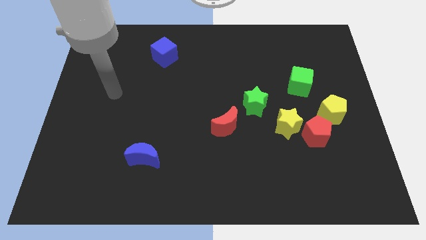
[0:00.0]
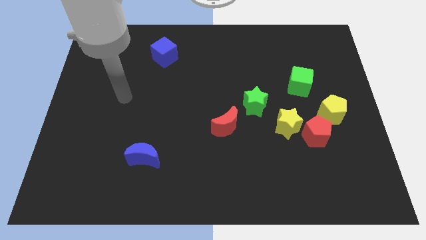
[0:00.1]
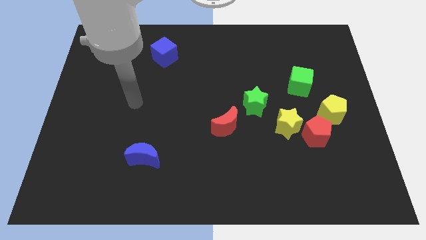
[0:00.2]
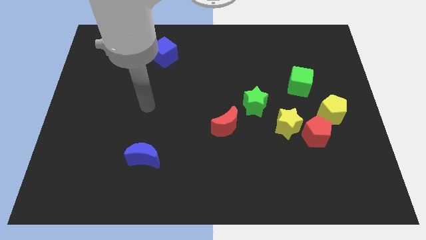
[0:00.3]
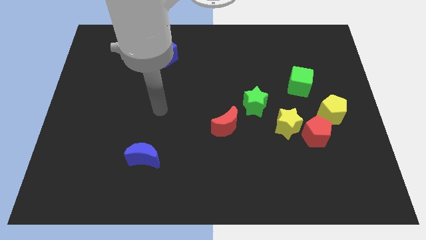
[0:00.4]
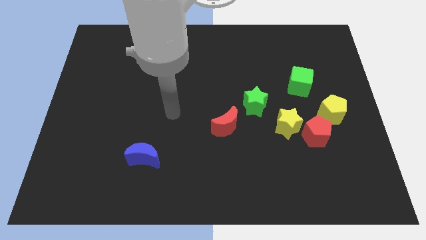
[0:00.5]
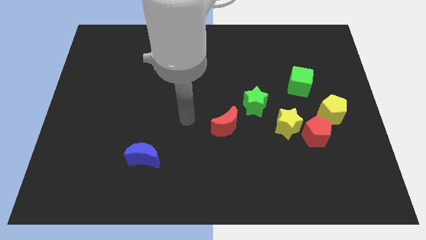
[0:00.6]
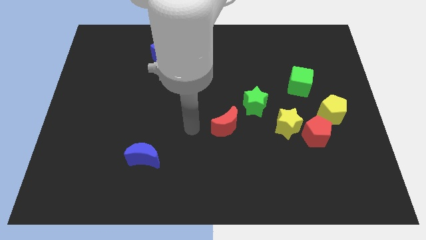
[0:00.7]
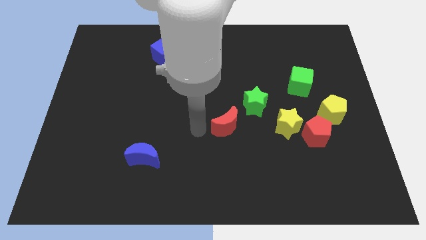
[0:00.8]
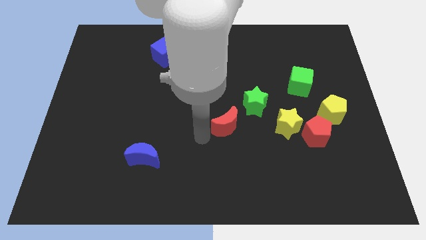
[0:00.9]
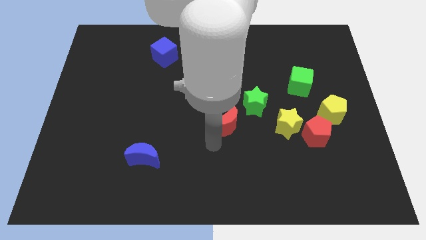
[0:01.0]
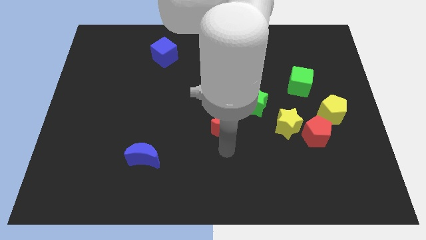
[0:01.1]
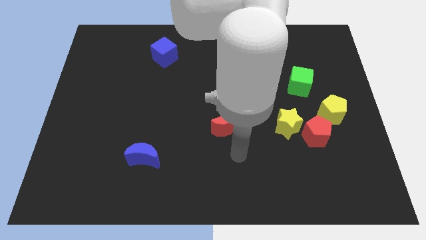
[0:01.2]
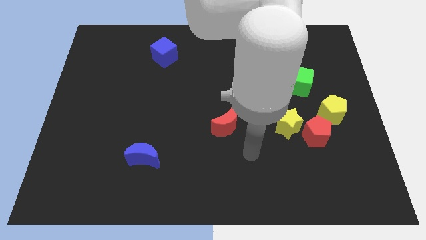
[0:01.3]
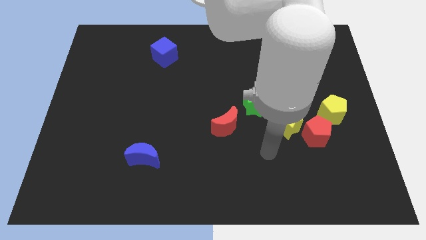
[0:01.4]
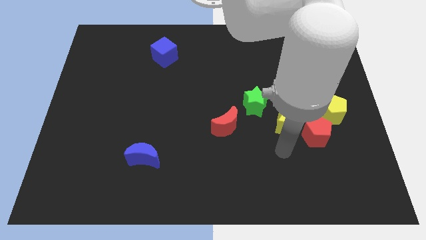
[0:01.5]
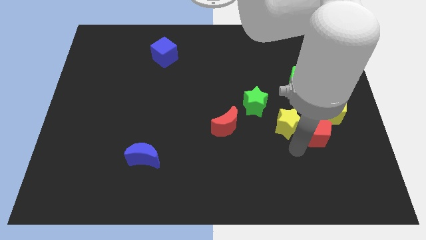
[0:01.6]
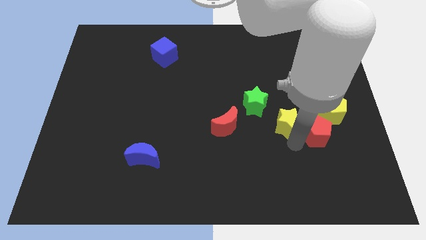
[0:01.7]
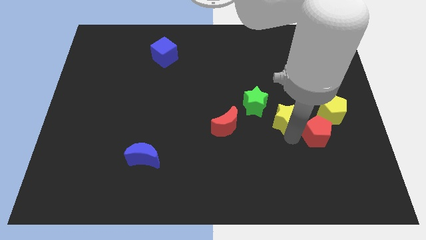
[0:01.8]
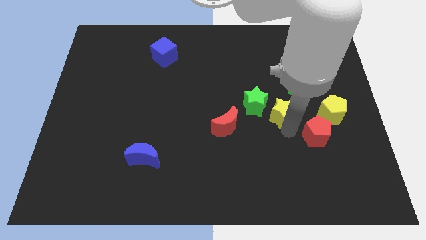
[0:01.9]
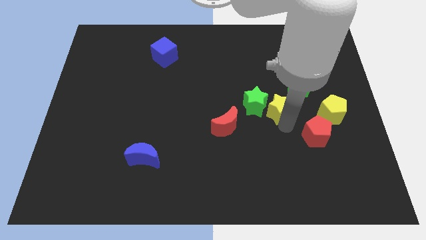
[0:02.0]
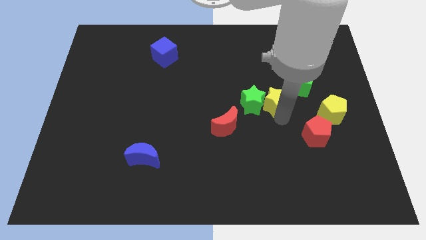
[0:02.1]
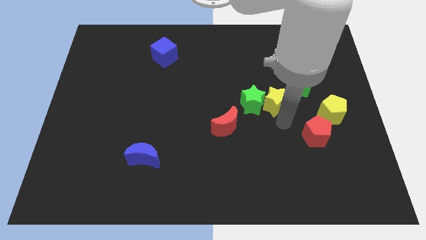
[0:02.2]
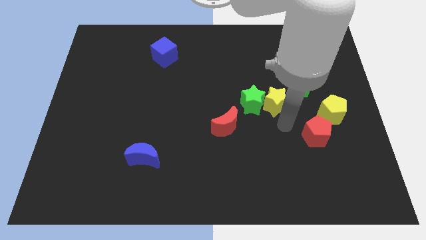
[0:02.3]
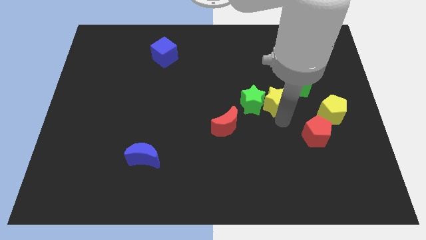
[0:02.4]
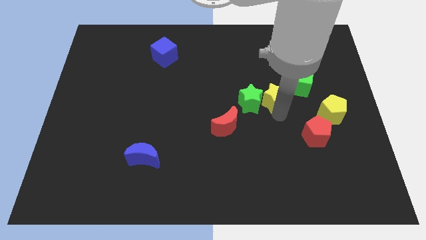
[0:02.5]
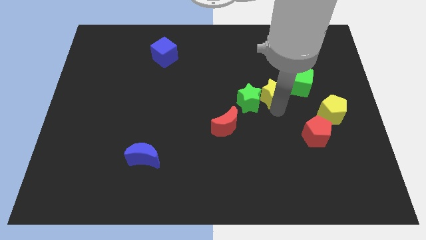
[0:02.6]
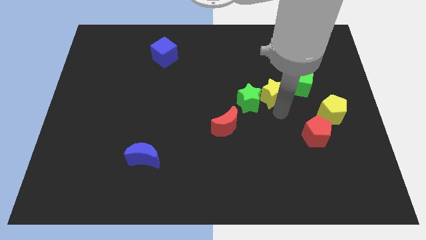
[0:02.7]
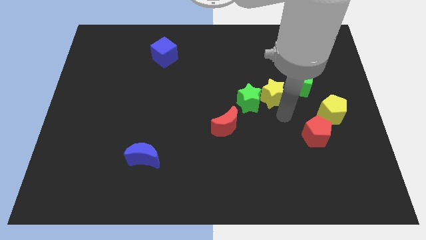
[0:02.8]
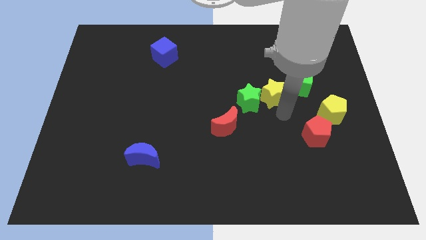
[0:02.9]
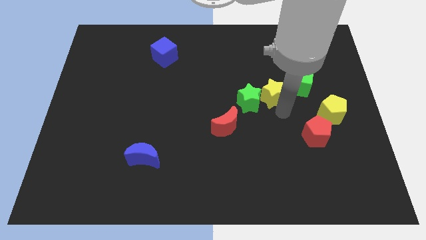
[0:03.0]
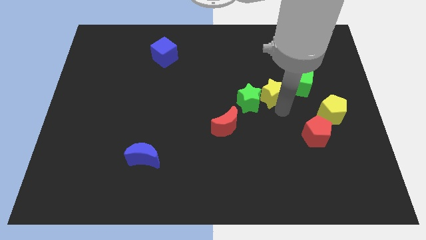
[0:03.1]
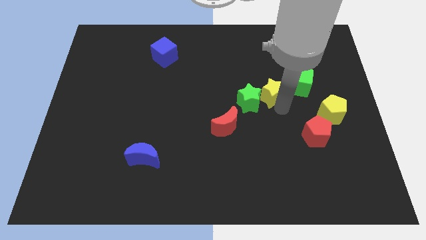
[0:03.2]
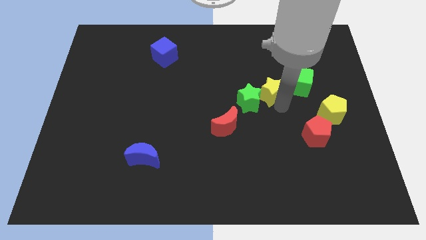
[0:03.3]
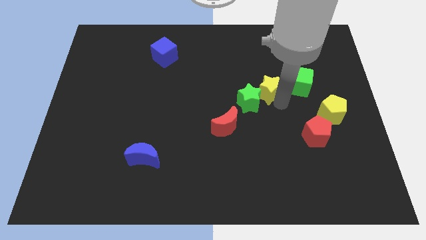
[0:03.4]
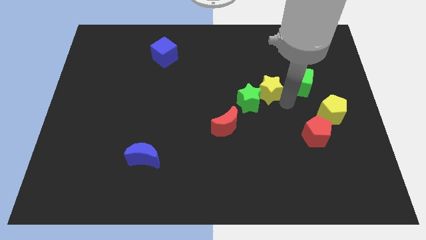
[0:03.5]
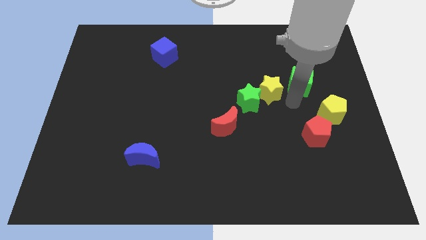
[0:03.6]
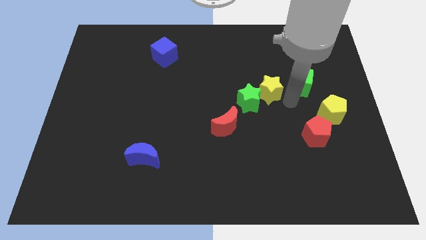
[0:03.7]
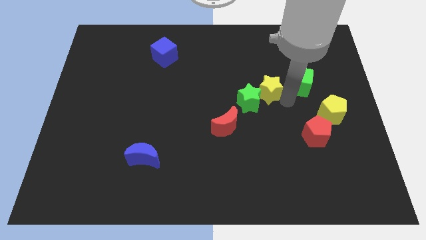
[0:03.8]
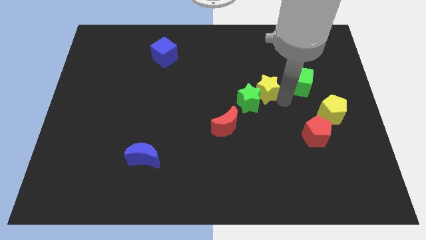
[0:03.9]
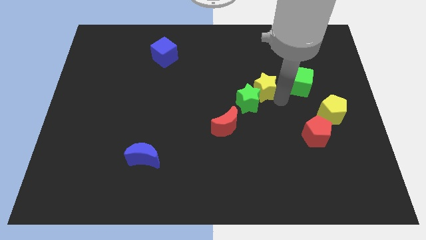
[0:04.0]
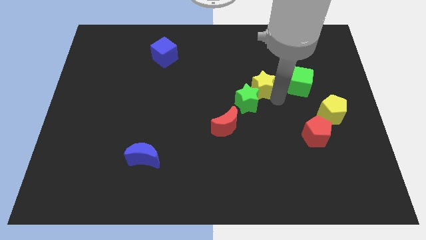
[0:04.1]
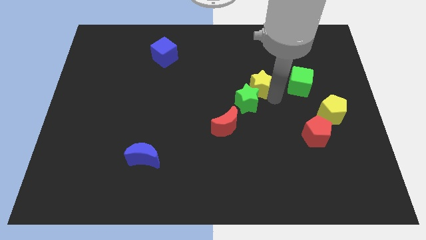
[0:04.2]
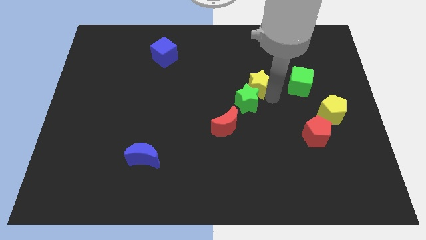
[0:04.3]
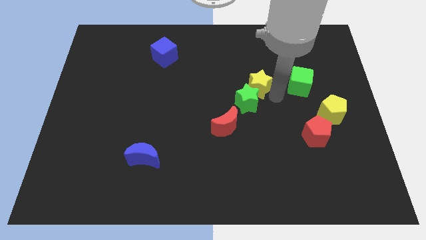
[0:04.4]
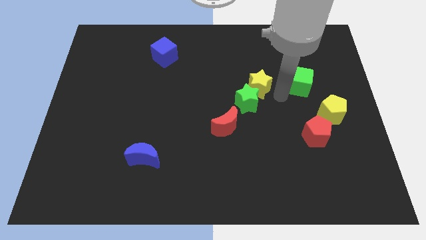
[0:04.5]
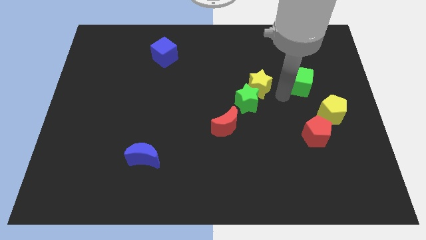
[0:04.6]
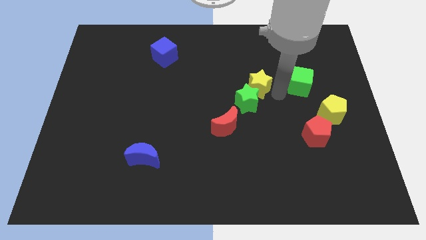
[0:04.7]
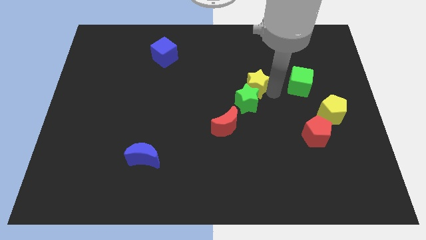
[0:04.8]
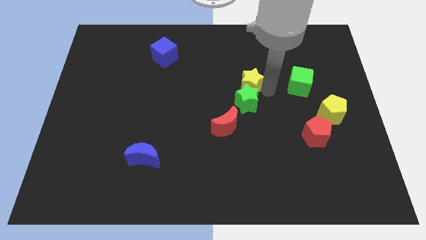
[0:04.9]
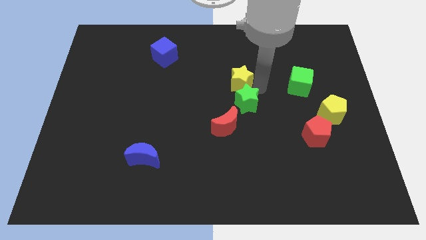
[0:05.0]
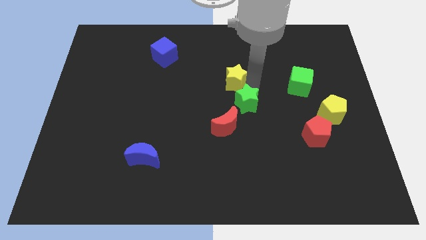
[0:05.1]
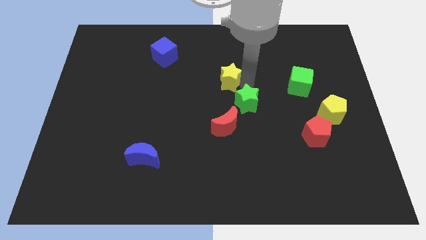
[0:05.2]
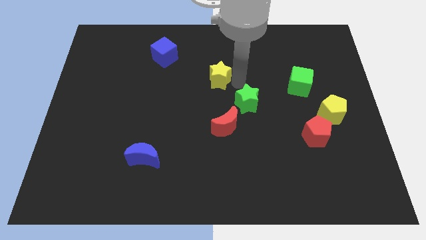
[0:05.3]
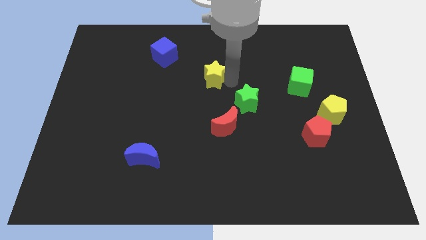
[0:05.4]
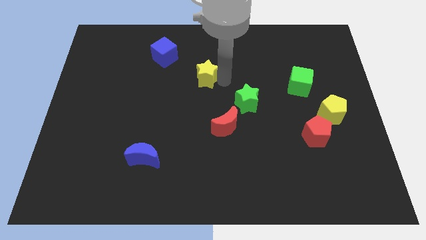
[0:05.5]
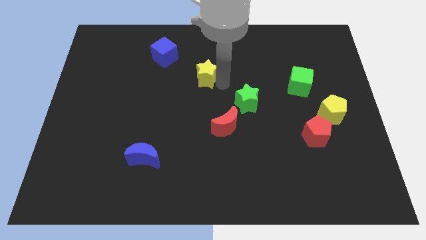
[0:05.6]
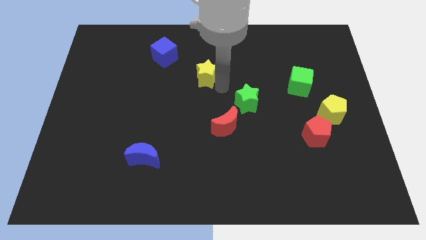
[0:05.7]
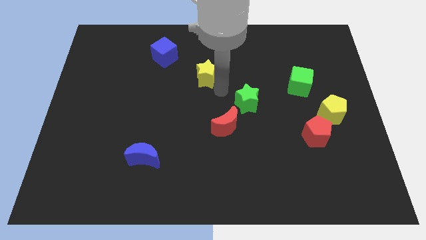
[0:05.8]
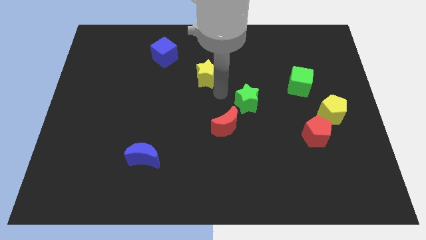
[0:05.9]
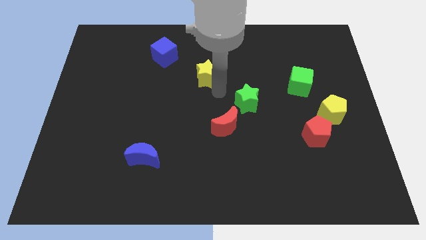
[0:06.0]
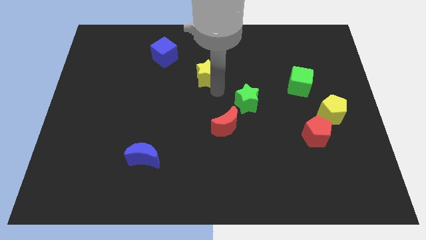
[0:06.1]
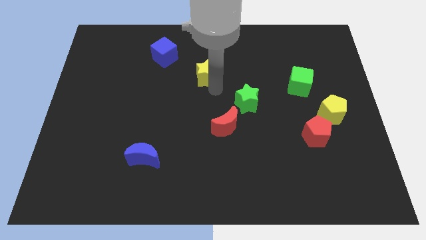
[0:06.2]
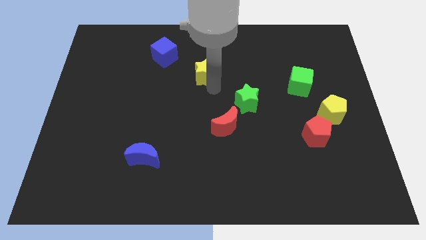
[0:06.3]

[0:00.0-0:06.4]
slide the yellow star to the bottom right of the blue cube
